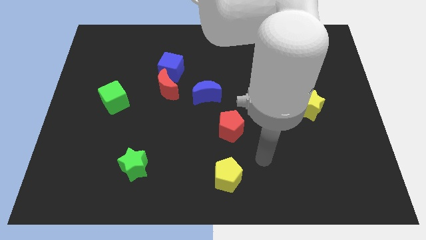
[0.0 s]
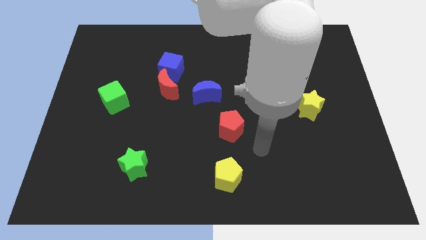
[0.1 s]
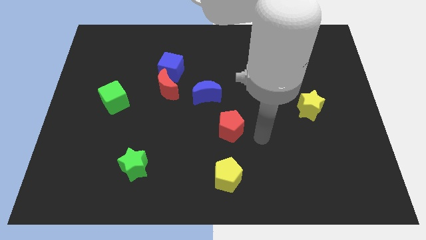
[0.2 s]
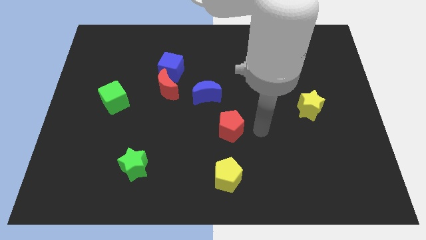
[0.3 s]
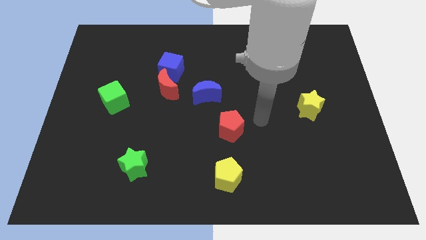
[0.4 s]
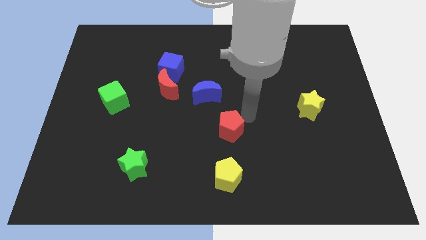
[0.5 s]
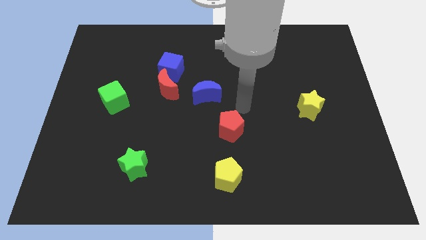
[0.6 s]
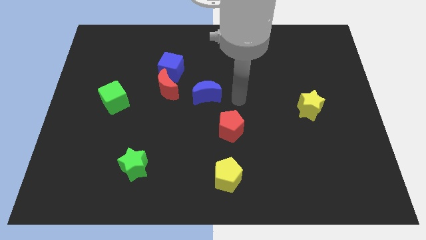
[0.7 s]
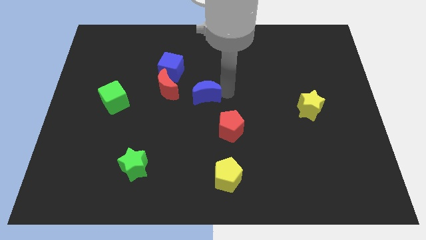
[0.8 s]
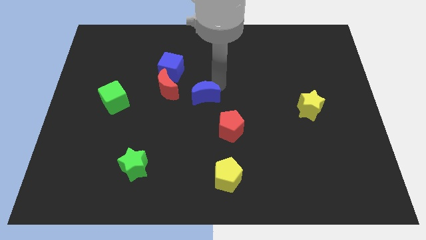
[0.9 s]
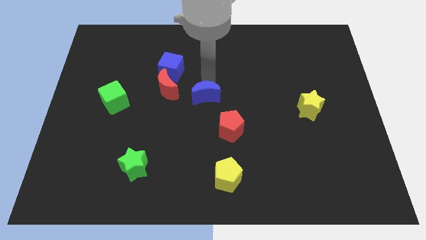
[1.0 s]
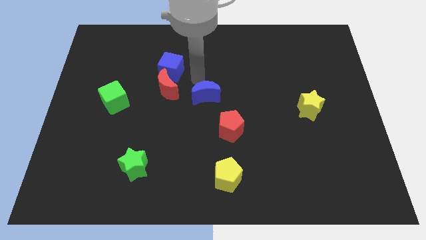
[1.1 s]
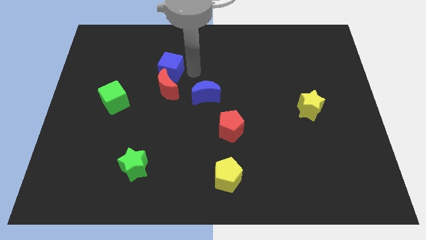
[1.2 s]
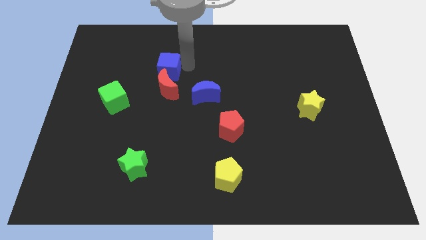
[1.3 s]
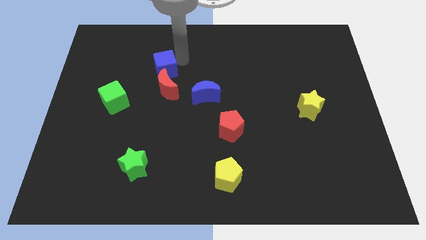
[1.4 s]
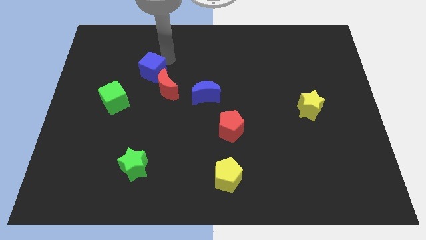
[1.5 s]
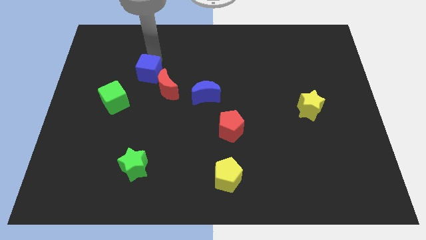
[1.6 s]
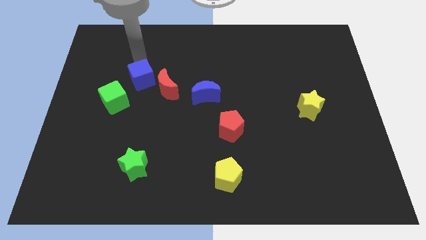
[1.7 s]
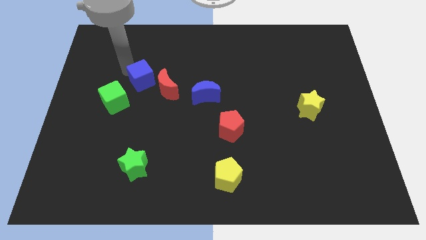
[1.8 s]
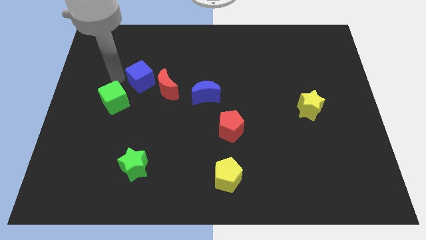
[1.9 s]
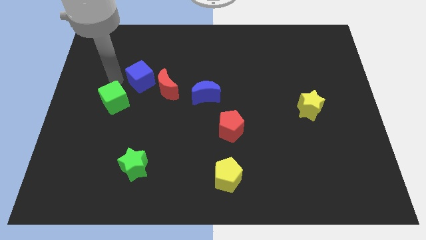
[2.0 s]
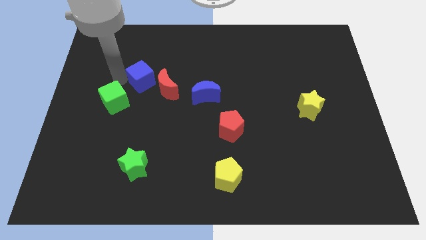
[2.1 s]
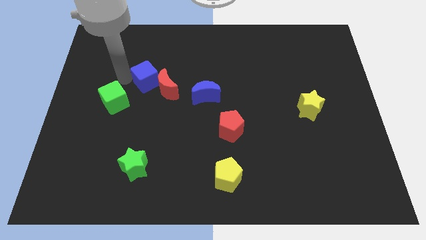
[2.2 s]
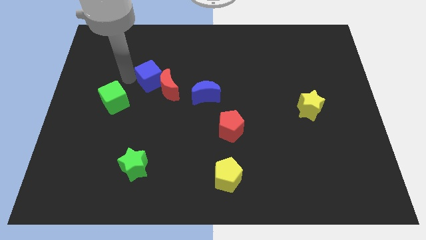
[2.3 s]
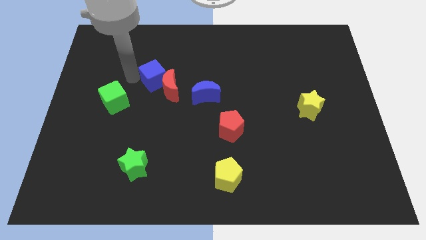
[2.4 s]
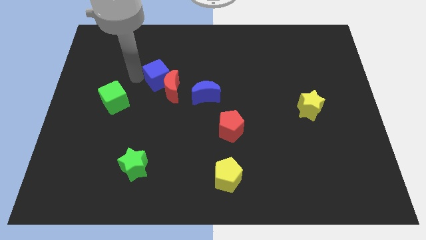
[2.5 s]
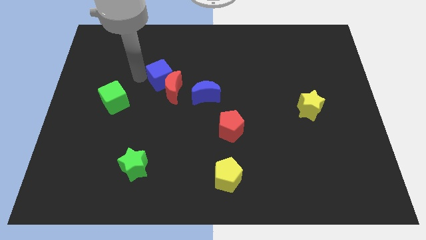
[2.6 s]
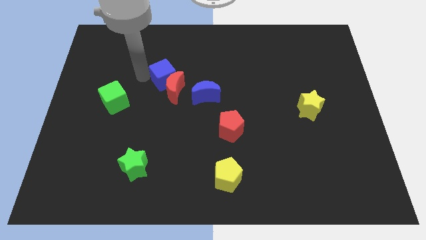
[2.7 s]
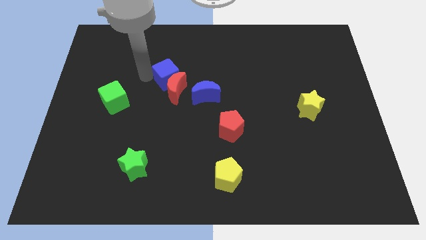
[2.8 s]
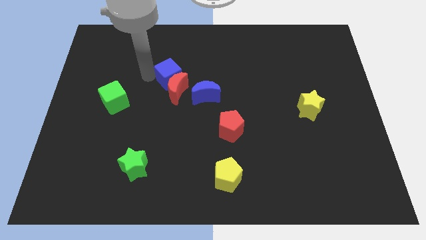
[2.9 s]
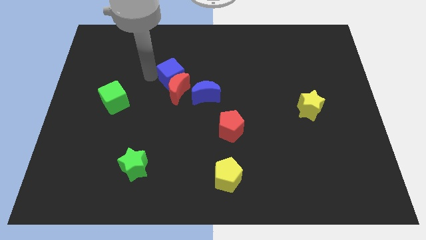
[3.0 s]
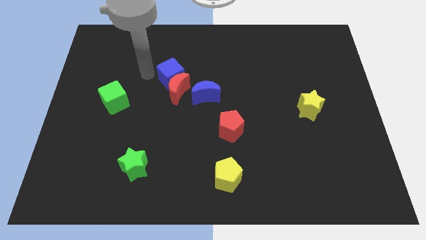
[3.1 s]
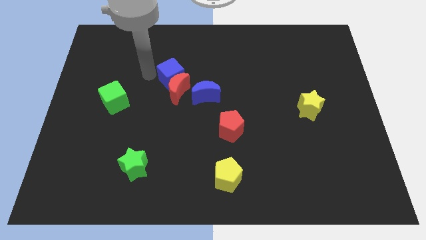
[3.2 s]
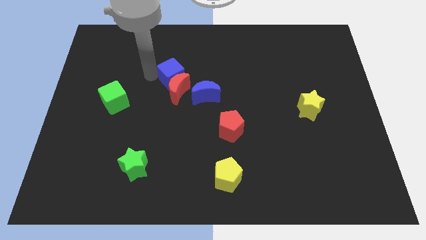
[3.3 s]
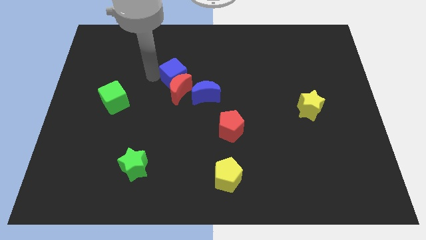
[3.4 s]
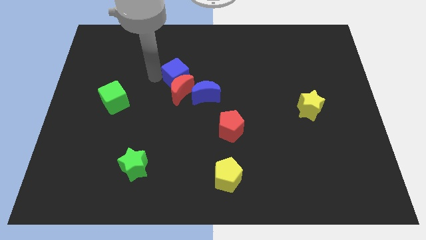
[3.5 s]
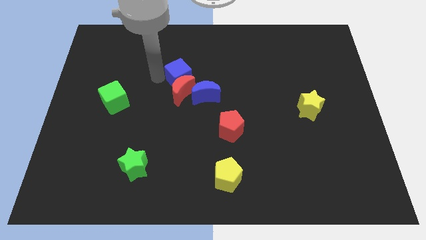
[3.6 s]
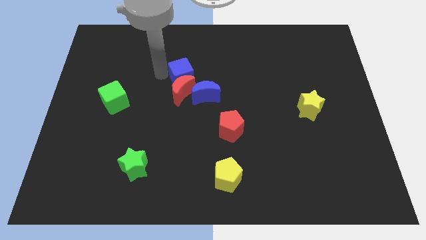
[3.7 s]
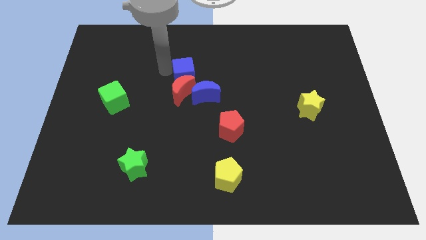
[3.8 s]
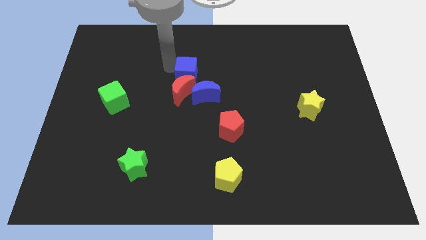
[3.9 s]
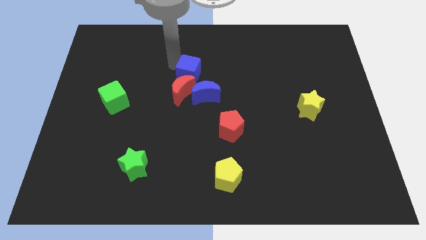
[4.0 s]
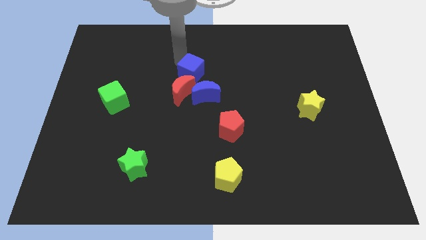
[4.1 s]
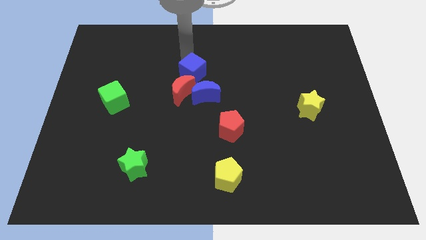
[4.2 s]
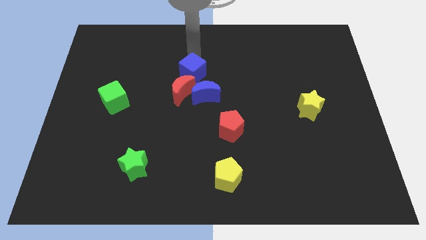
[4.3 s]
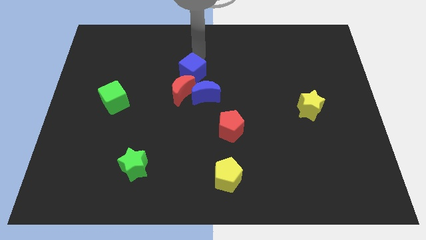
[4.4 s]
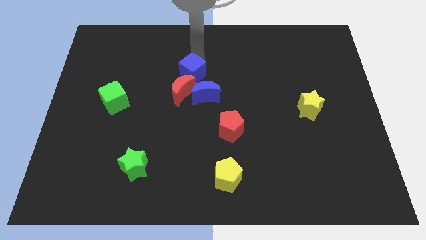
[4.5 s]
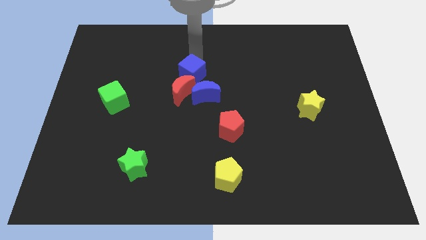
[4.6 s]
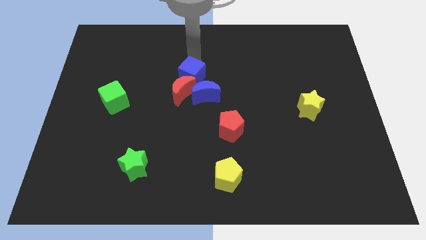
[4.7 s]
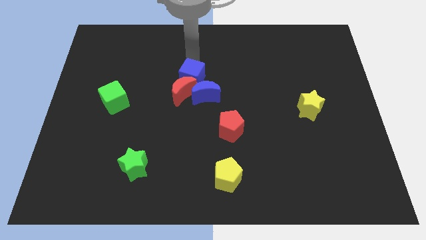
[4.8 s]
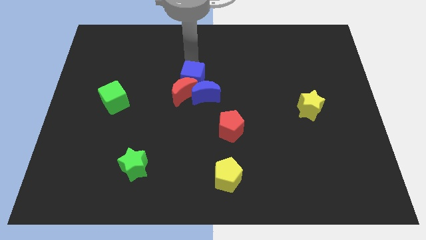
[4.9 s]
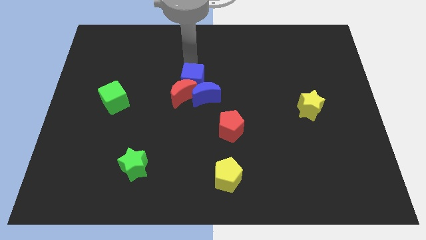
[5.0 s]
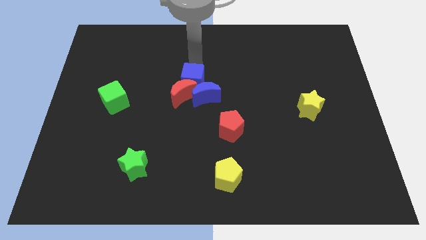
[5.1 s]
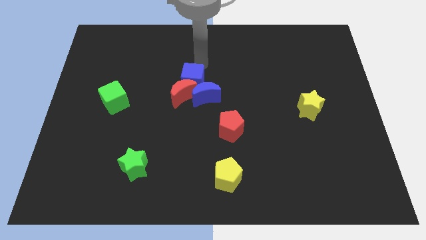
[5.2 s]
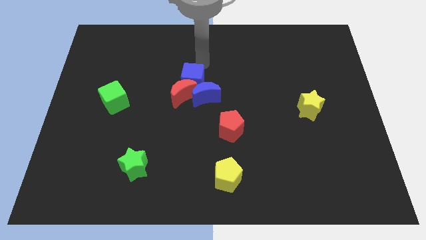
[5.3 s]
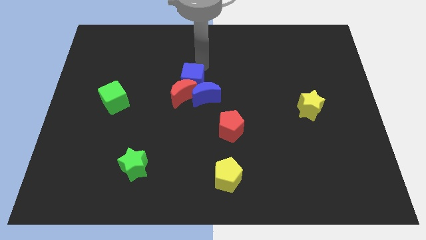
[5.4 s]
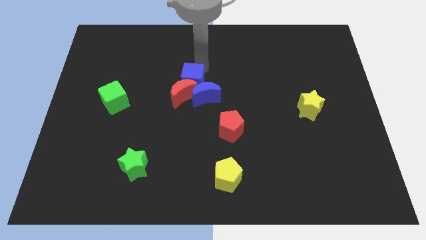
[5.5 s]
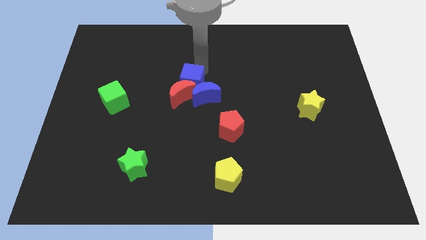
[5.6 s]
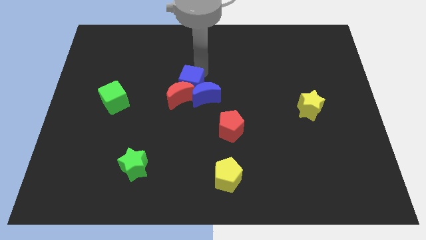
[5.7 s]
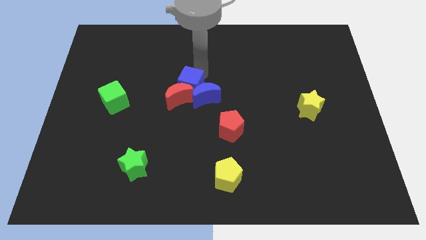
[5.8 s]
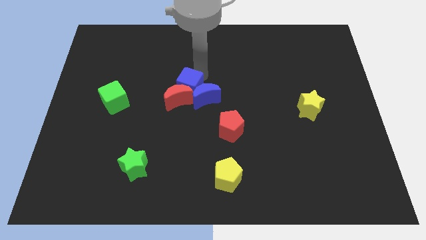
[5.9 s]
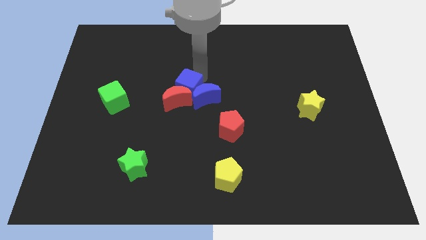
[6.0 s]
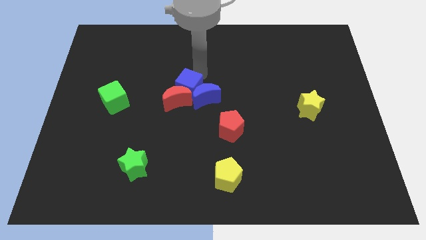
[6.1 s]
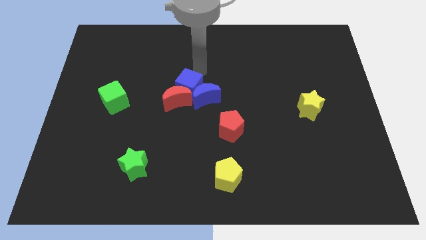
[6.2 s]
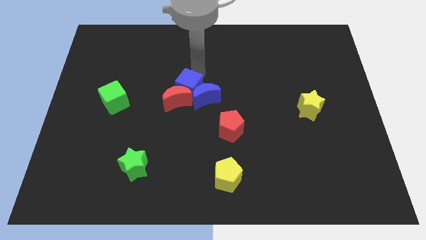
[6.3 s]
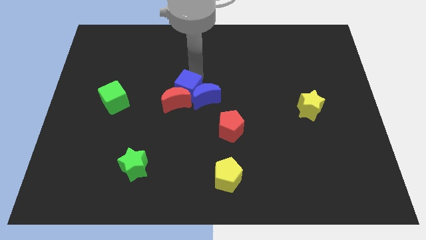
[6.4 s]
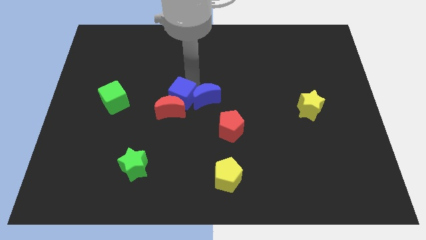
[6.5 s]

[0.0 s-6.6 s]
slightly move the blue cube downwards

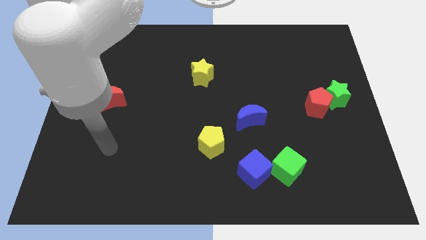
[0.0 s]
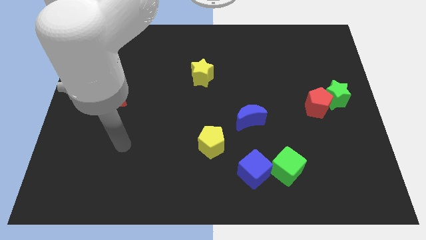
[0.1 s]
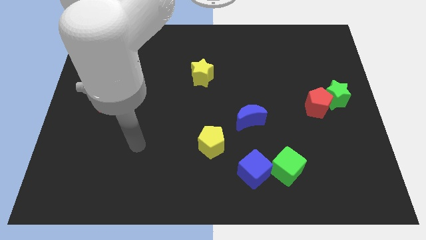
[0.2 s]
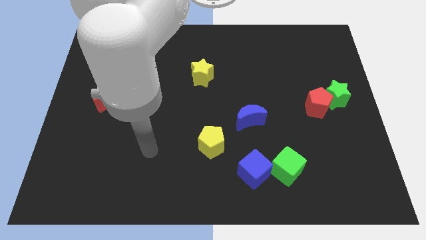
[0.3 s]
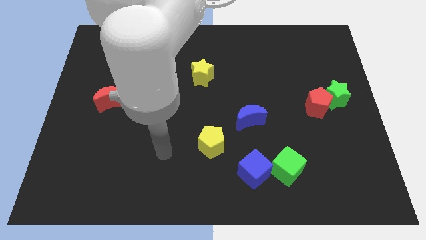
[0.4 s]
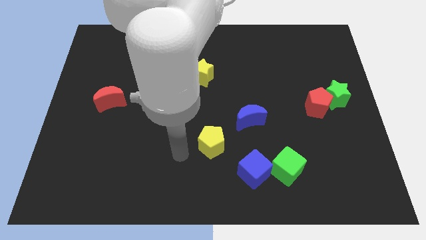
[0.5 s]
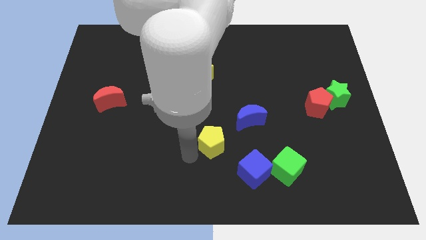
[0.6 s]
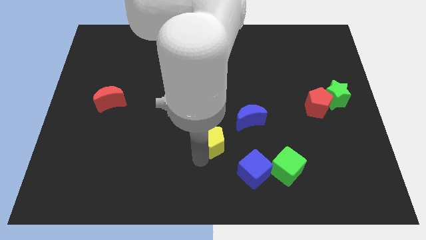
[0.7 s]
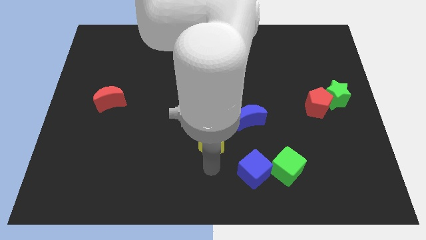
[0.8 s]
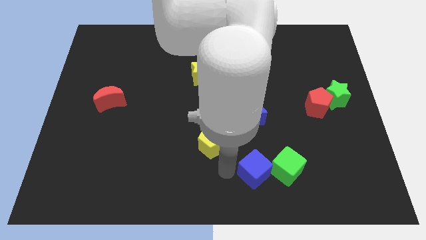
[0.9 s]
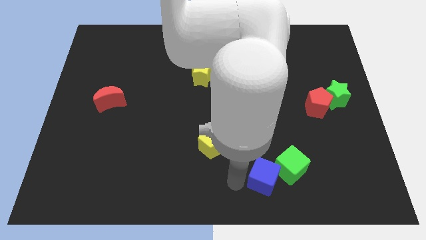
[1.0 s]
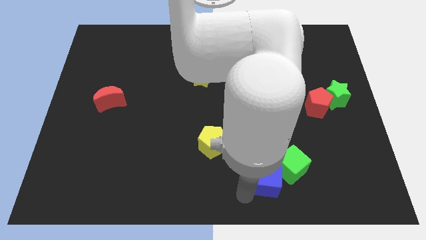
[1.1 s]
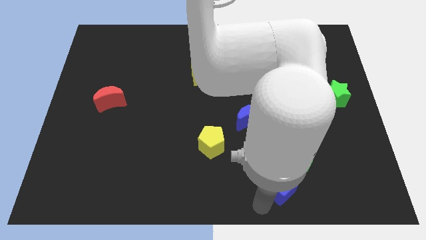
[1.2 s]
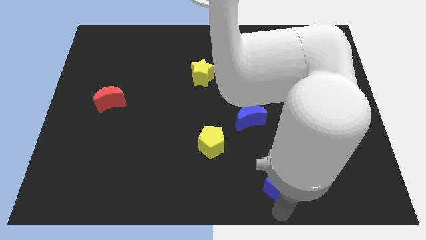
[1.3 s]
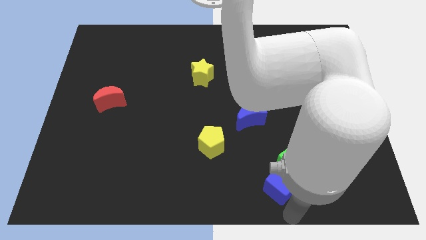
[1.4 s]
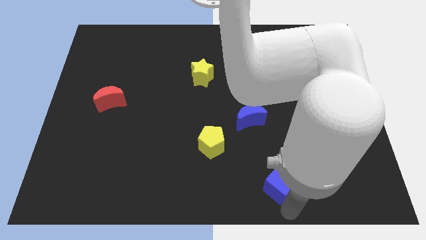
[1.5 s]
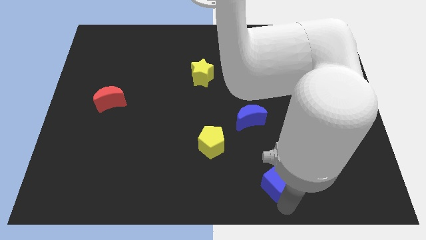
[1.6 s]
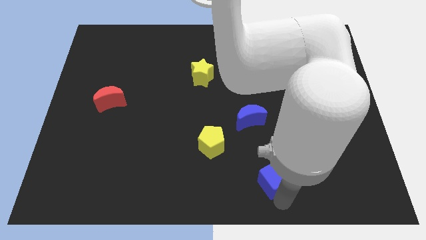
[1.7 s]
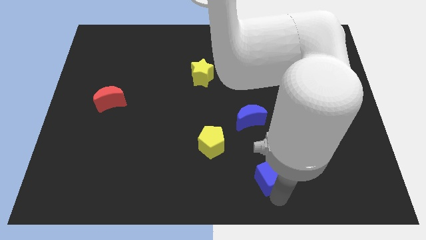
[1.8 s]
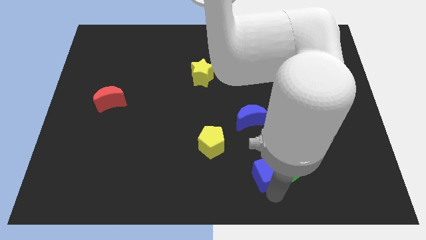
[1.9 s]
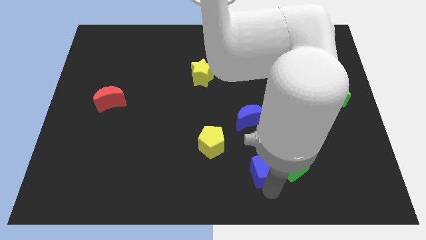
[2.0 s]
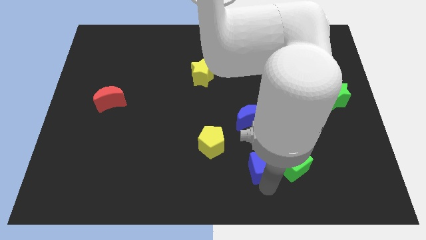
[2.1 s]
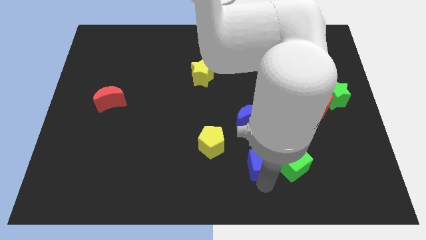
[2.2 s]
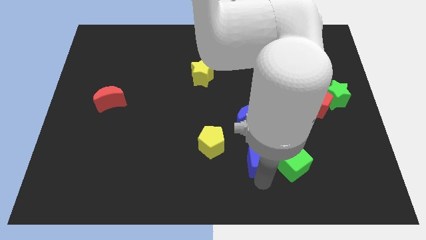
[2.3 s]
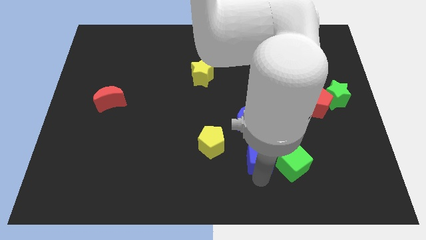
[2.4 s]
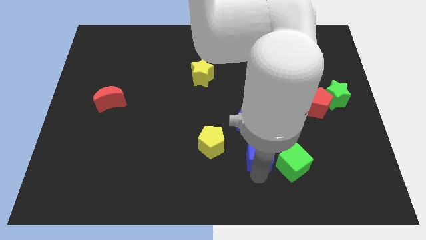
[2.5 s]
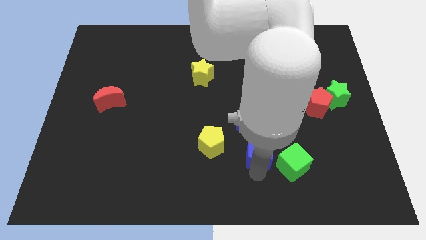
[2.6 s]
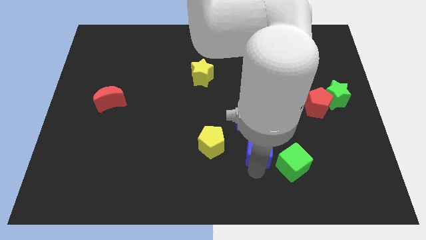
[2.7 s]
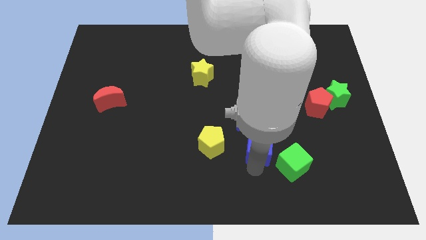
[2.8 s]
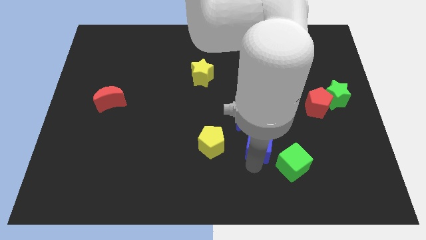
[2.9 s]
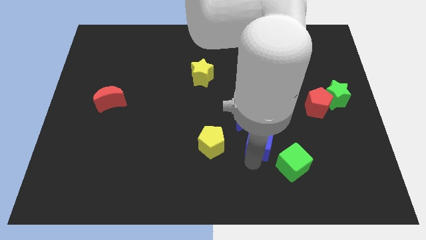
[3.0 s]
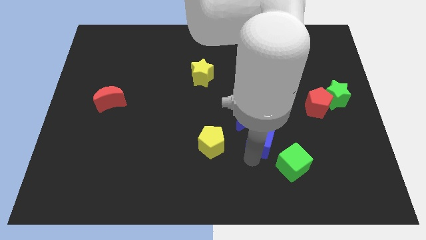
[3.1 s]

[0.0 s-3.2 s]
move the blue cube a little upwards
